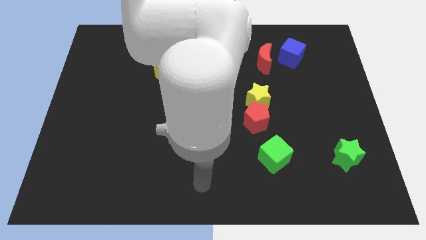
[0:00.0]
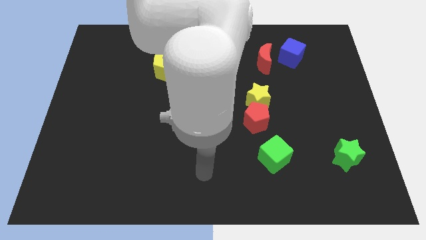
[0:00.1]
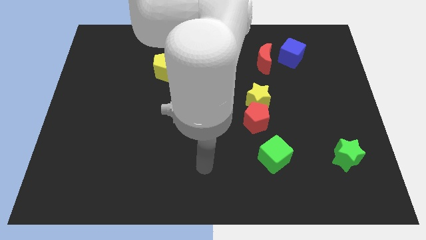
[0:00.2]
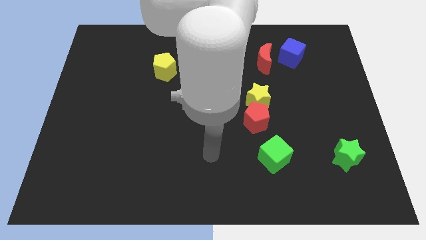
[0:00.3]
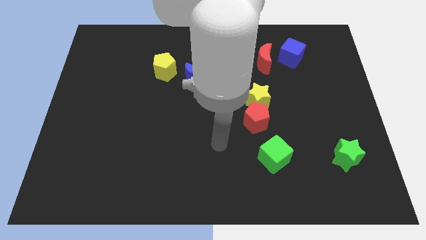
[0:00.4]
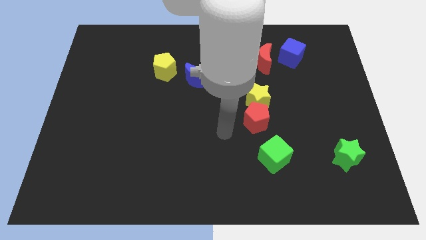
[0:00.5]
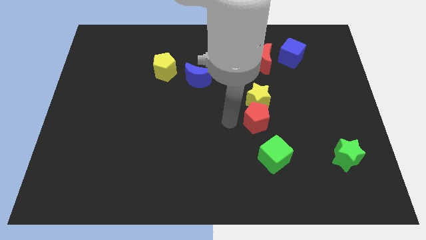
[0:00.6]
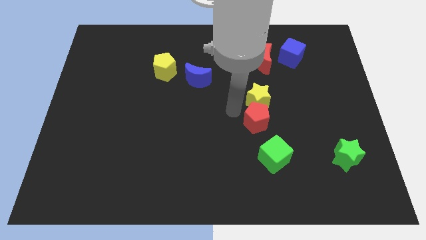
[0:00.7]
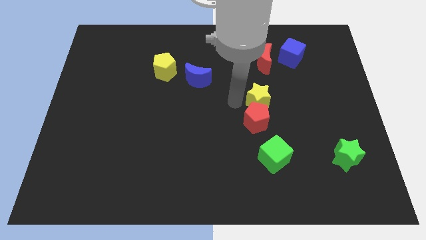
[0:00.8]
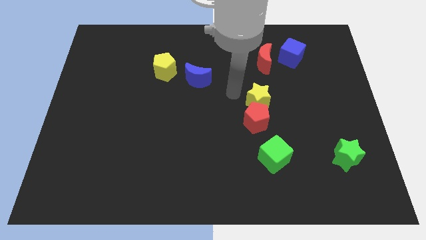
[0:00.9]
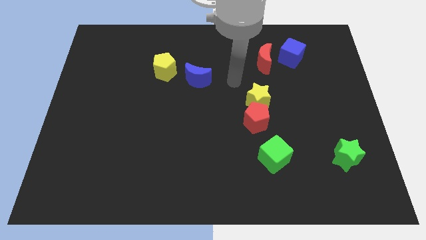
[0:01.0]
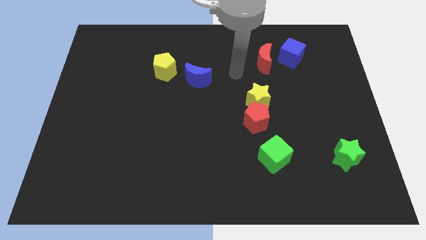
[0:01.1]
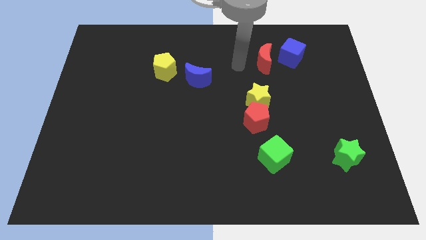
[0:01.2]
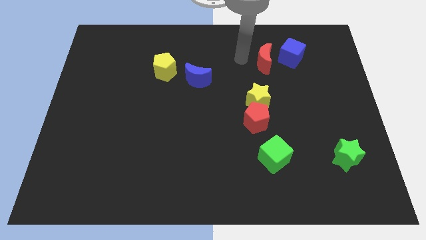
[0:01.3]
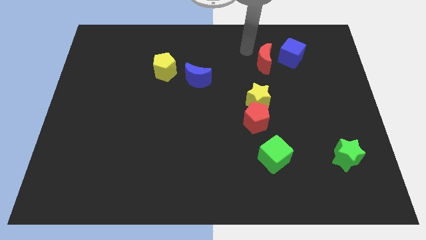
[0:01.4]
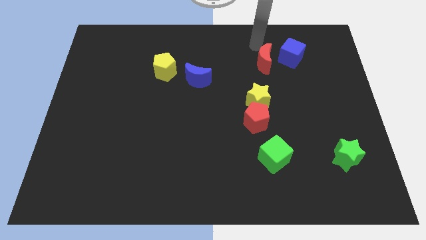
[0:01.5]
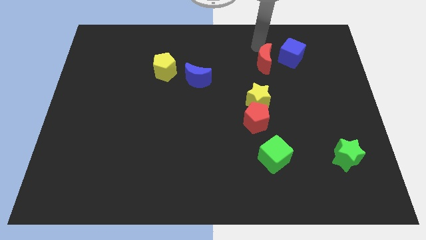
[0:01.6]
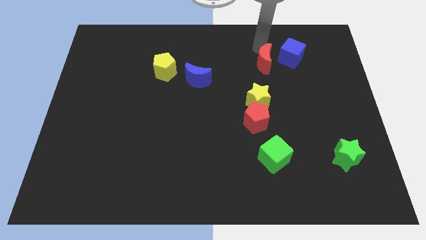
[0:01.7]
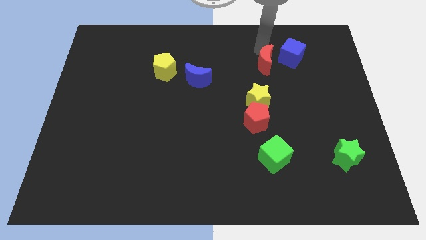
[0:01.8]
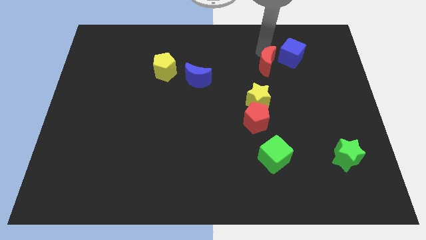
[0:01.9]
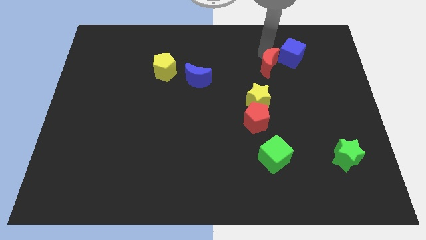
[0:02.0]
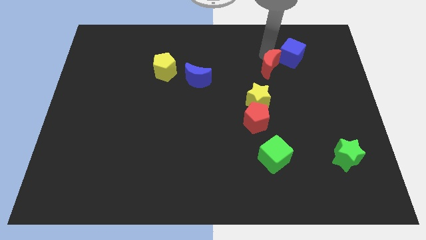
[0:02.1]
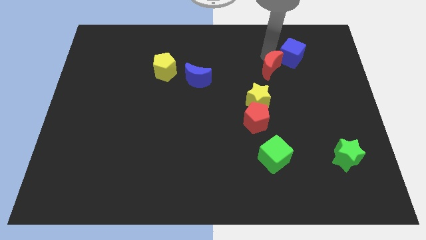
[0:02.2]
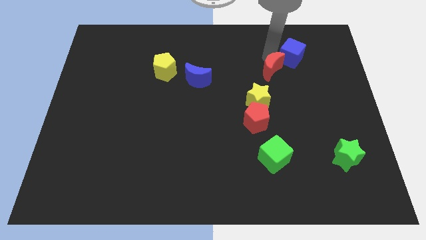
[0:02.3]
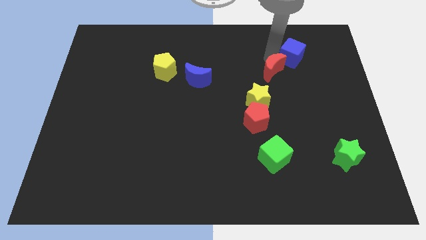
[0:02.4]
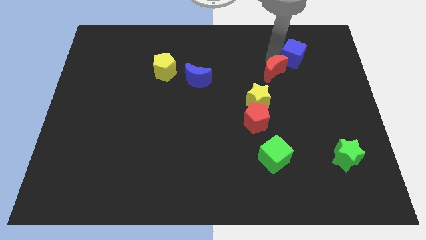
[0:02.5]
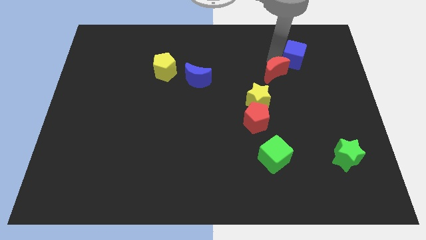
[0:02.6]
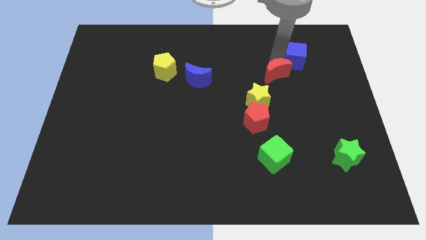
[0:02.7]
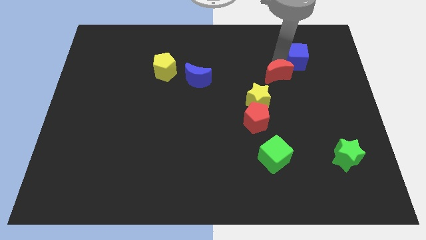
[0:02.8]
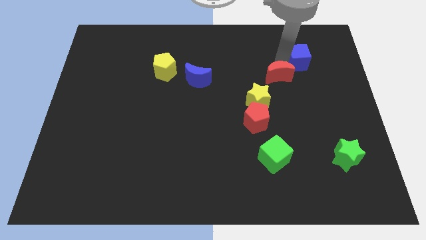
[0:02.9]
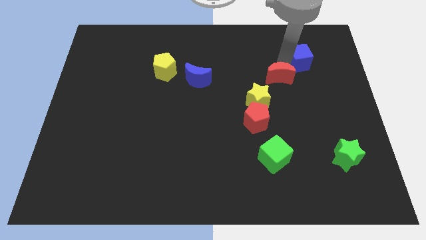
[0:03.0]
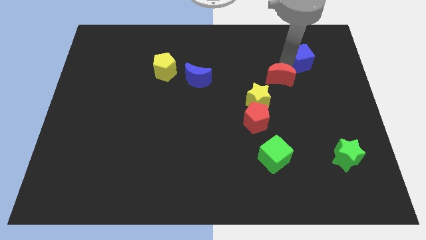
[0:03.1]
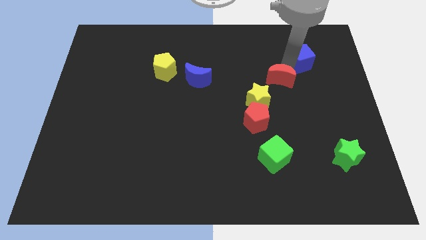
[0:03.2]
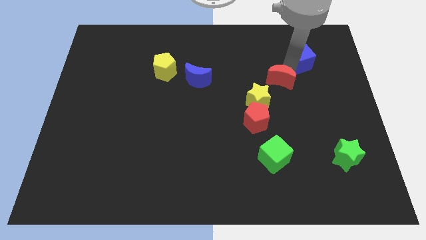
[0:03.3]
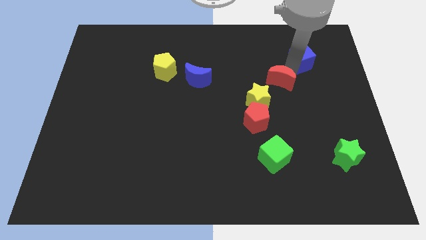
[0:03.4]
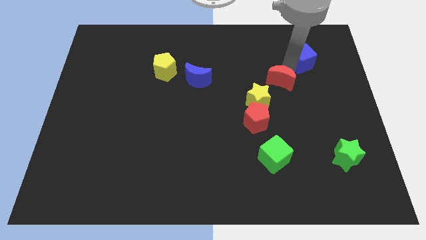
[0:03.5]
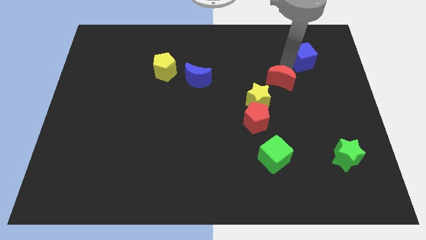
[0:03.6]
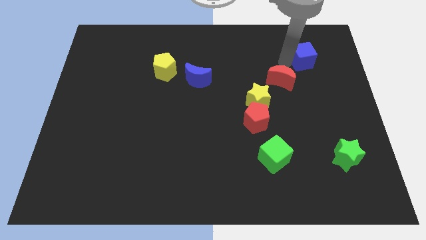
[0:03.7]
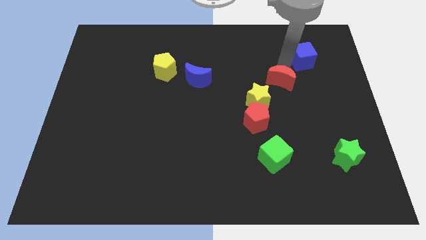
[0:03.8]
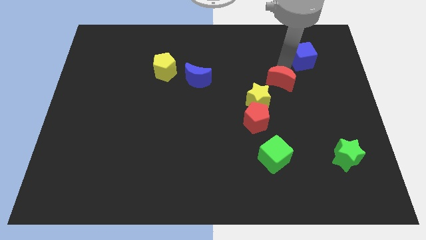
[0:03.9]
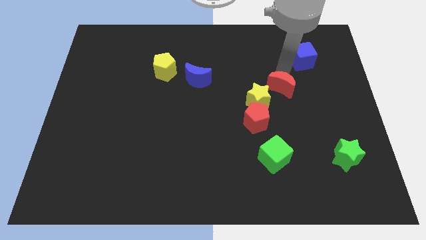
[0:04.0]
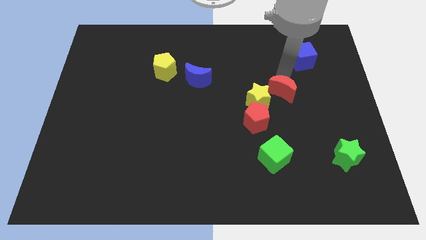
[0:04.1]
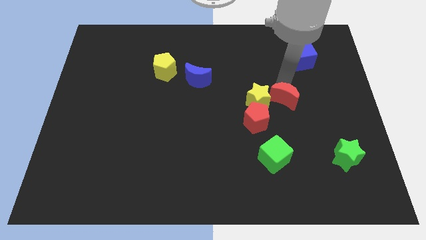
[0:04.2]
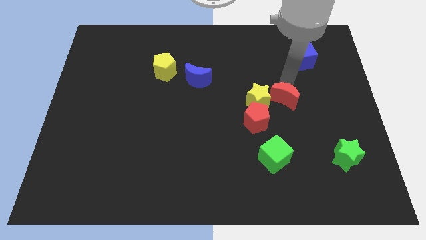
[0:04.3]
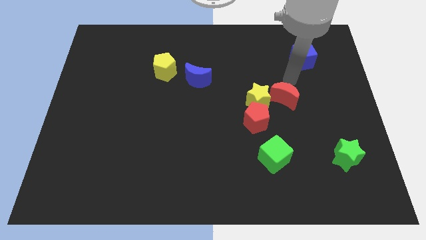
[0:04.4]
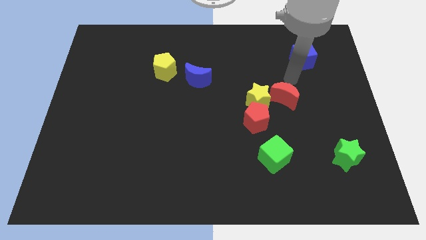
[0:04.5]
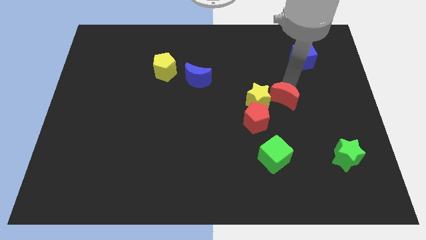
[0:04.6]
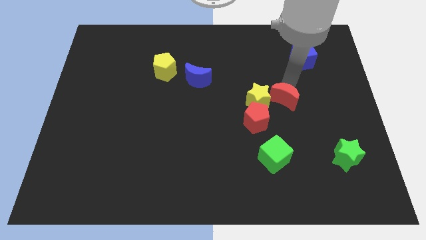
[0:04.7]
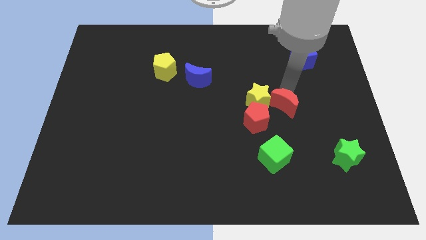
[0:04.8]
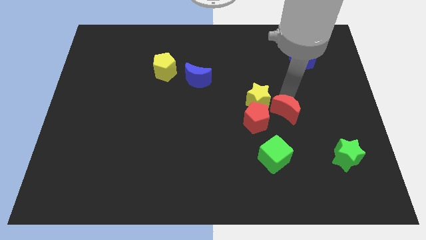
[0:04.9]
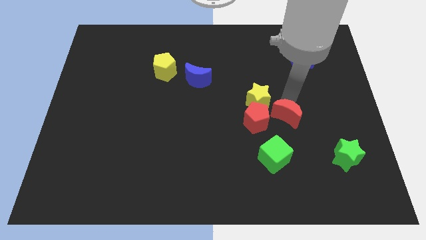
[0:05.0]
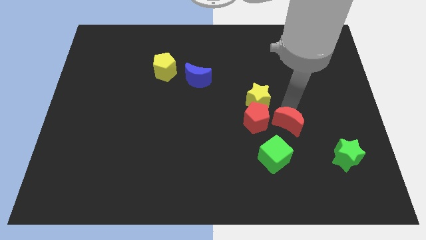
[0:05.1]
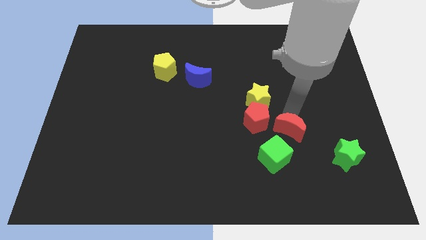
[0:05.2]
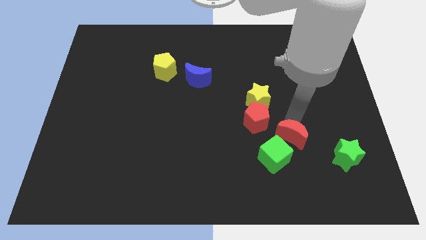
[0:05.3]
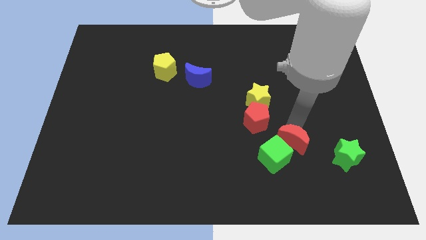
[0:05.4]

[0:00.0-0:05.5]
push the red moon next to the green cube

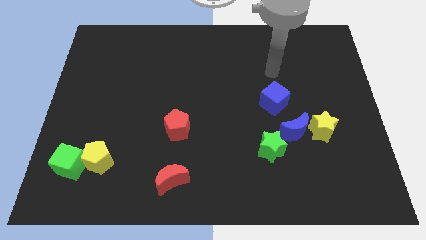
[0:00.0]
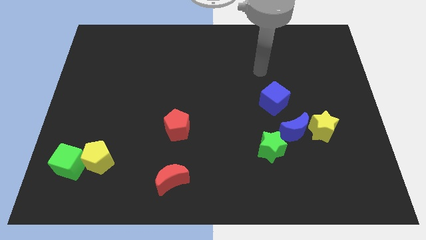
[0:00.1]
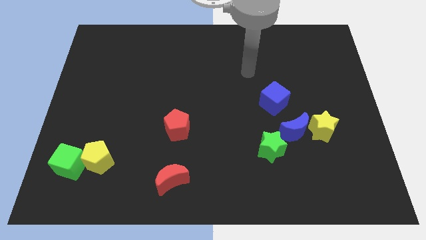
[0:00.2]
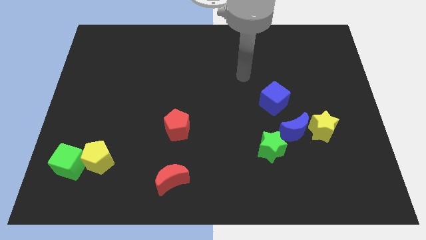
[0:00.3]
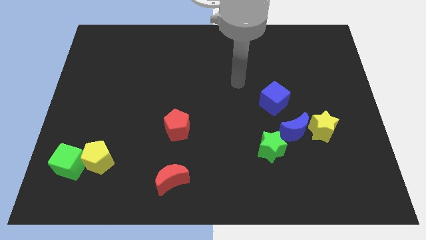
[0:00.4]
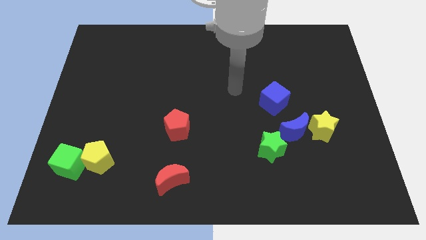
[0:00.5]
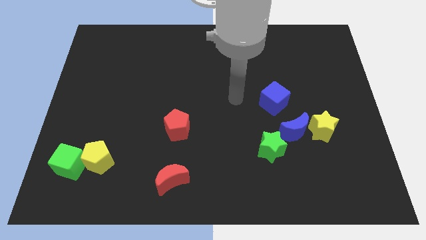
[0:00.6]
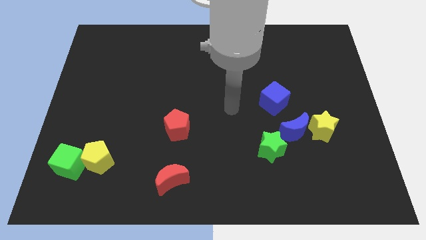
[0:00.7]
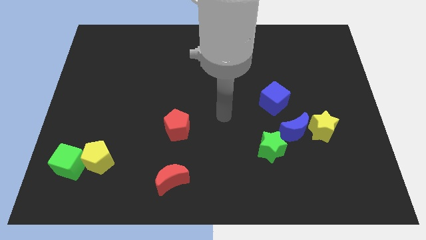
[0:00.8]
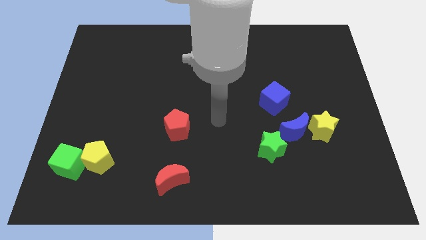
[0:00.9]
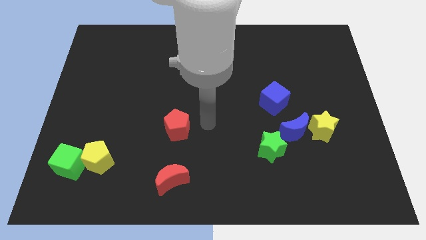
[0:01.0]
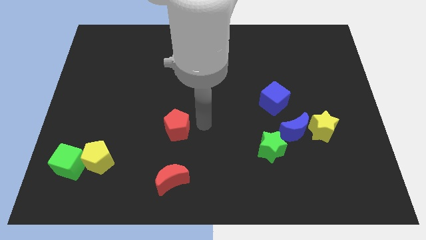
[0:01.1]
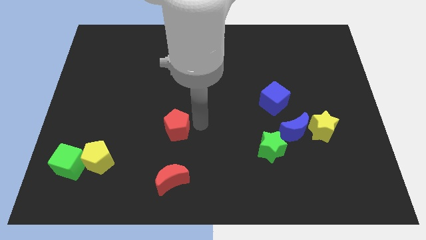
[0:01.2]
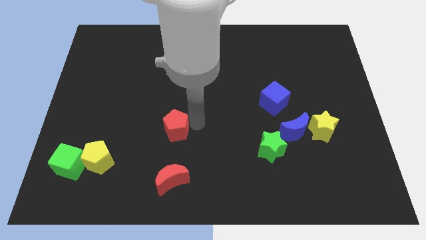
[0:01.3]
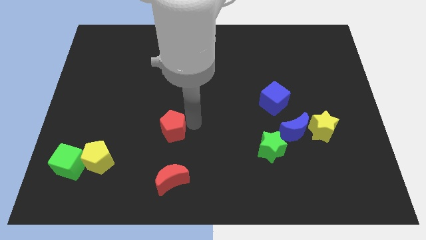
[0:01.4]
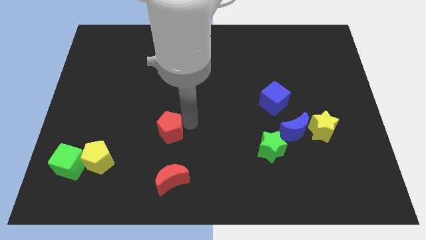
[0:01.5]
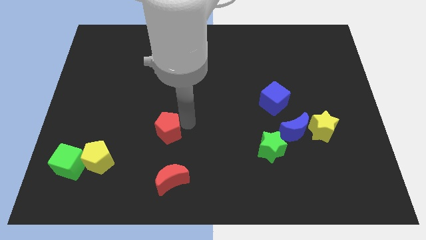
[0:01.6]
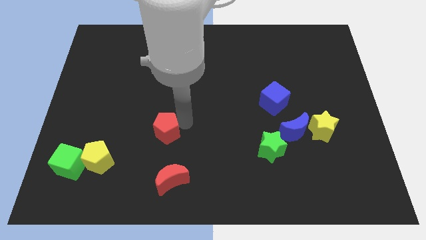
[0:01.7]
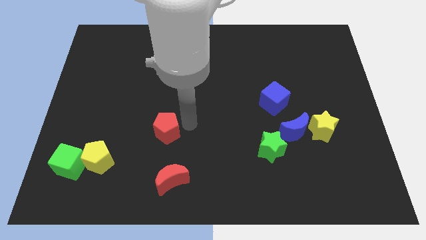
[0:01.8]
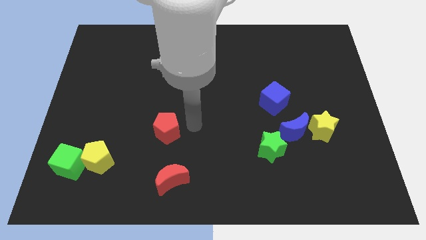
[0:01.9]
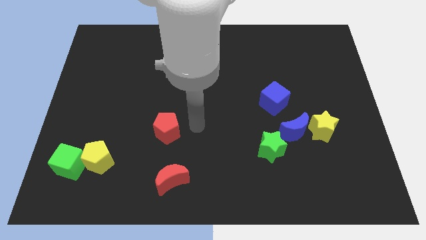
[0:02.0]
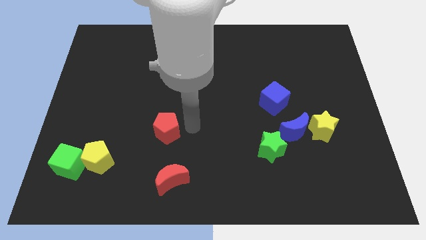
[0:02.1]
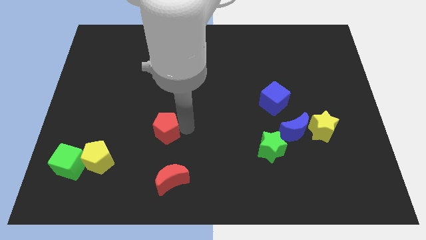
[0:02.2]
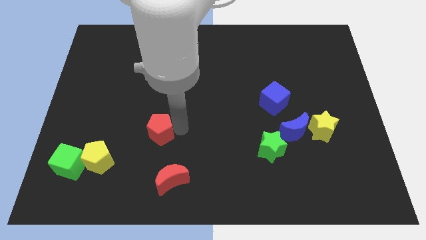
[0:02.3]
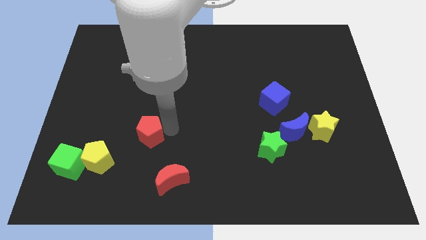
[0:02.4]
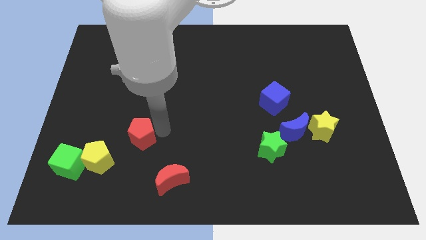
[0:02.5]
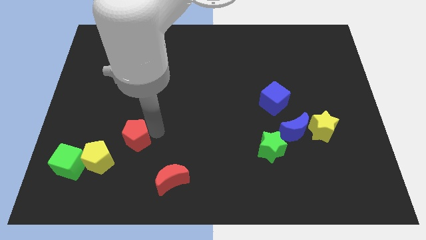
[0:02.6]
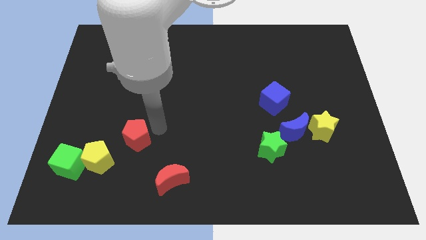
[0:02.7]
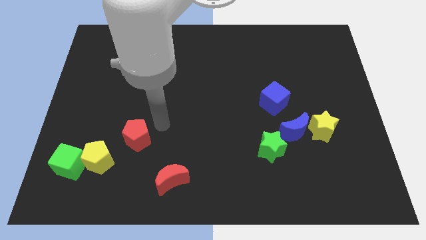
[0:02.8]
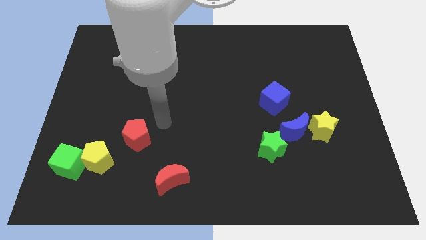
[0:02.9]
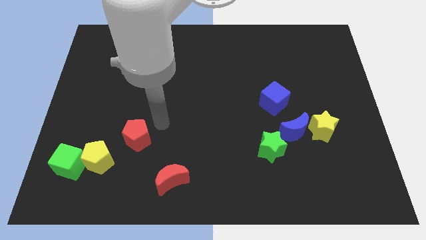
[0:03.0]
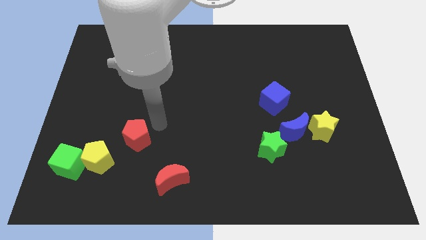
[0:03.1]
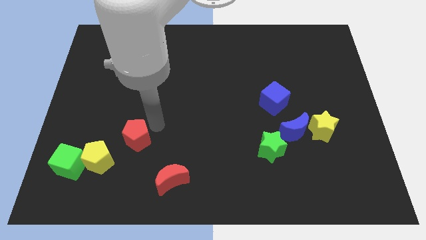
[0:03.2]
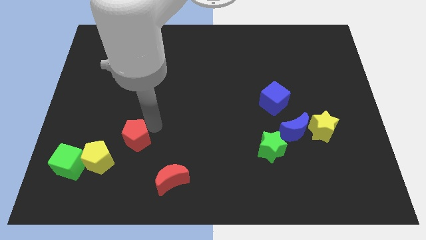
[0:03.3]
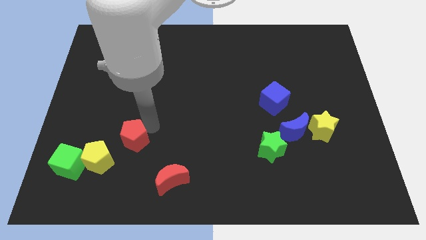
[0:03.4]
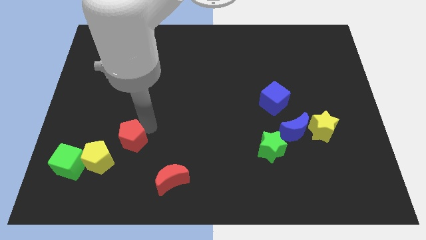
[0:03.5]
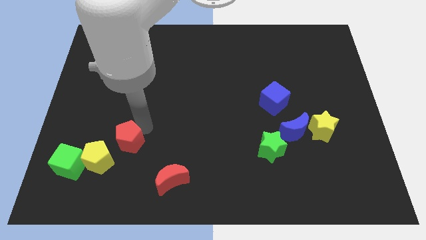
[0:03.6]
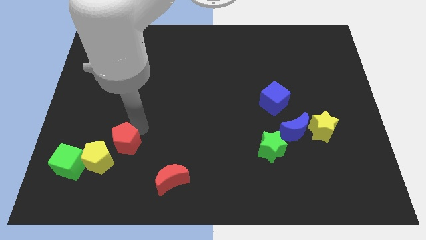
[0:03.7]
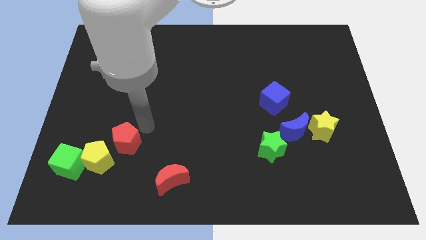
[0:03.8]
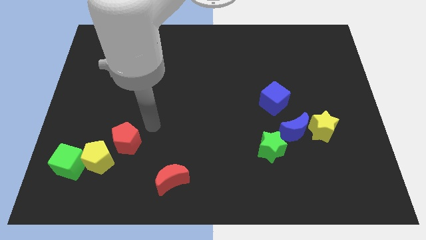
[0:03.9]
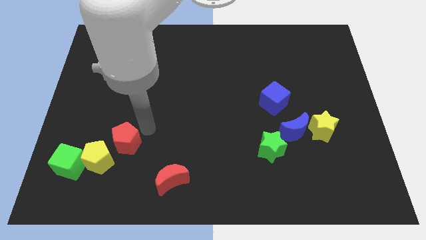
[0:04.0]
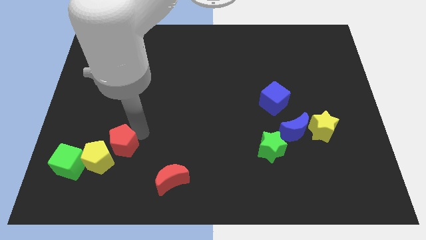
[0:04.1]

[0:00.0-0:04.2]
move the red pentagon close to the yellow pentagon
